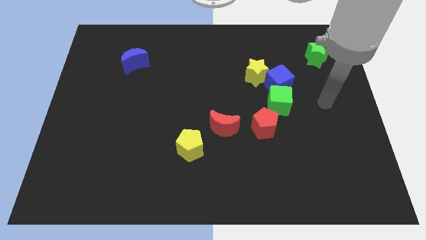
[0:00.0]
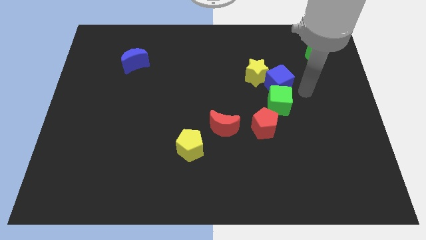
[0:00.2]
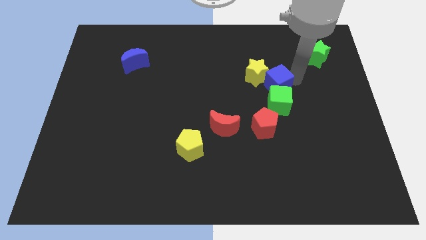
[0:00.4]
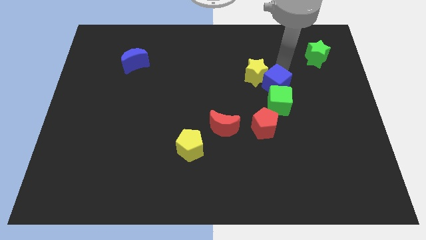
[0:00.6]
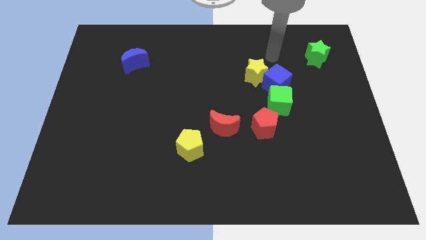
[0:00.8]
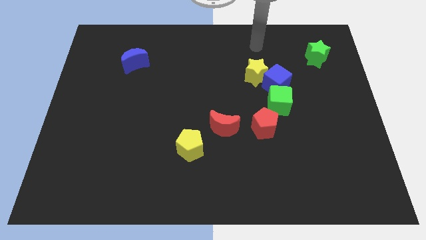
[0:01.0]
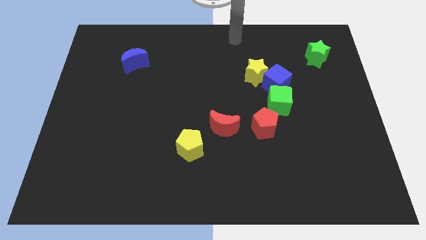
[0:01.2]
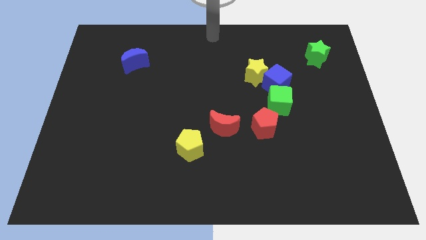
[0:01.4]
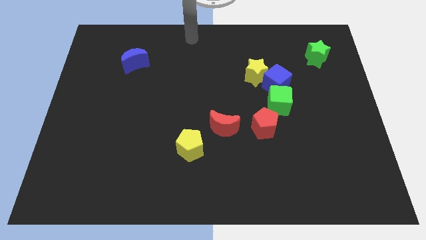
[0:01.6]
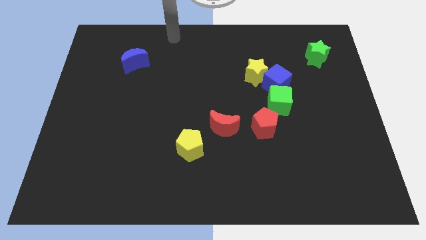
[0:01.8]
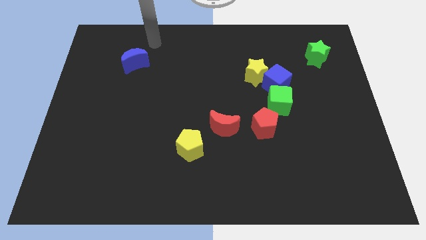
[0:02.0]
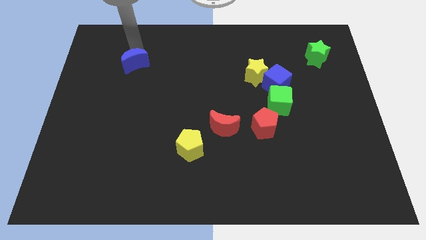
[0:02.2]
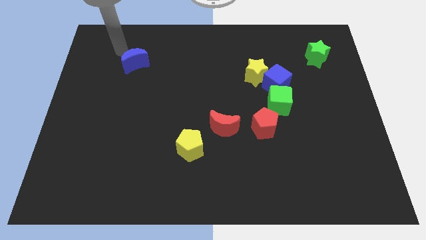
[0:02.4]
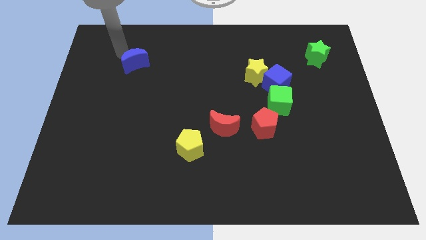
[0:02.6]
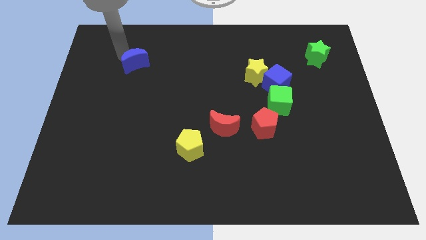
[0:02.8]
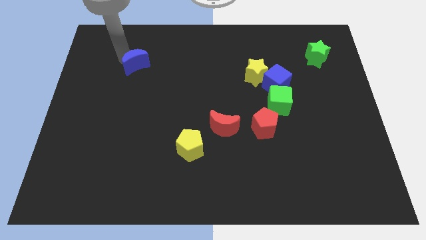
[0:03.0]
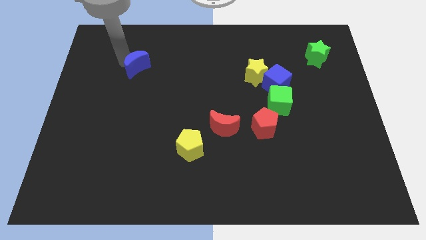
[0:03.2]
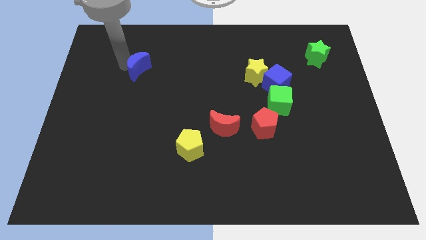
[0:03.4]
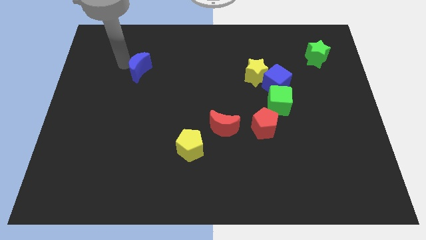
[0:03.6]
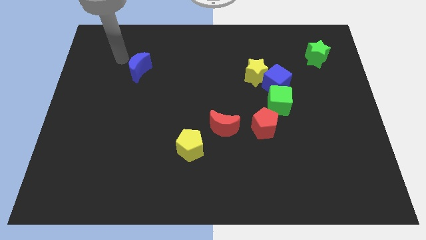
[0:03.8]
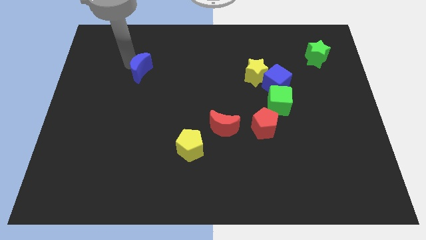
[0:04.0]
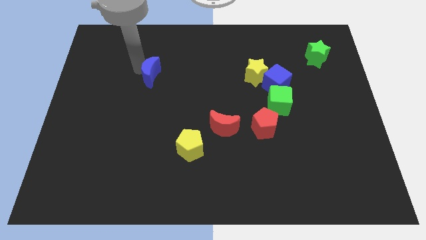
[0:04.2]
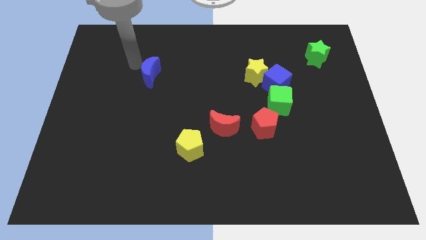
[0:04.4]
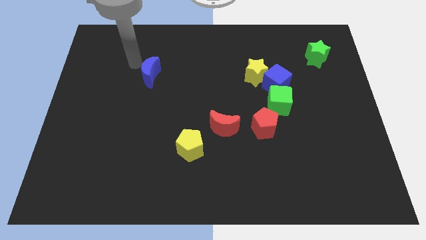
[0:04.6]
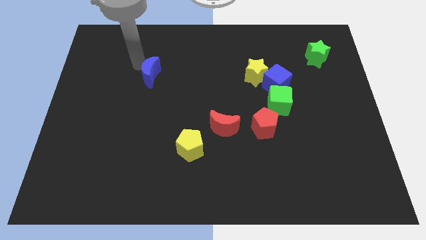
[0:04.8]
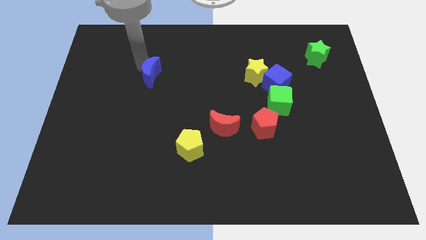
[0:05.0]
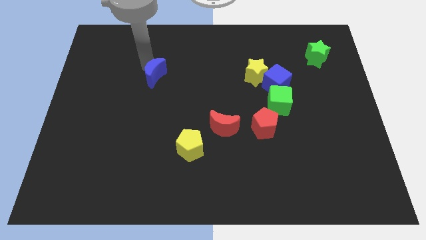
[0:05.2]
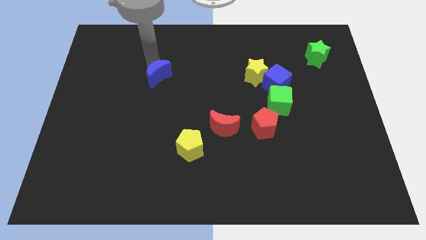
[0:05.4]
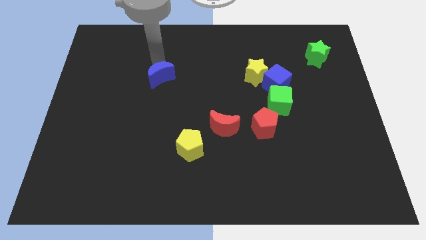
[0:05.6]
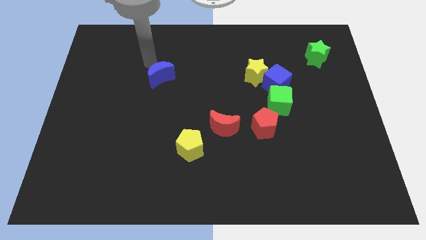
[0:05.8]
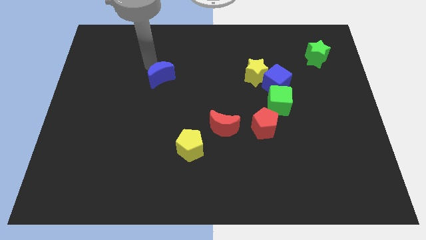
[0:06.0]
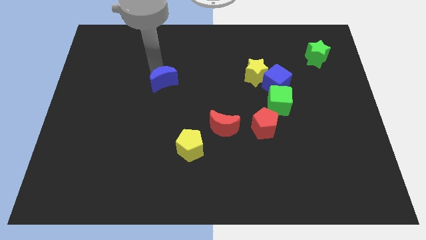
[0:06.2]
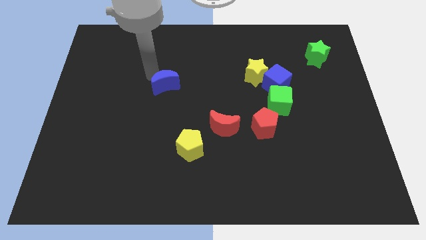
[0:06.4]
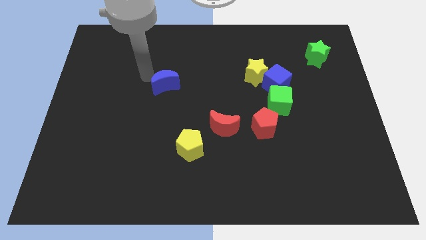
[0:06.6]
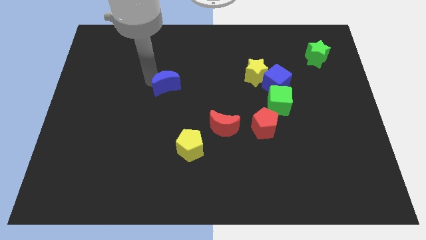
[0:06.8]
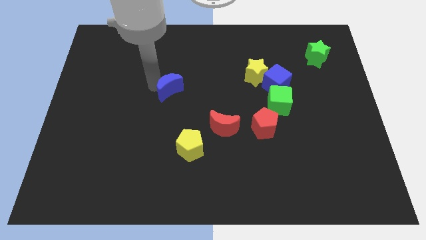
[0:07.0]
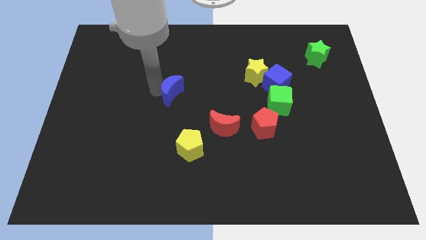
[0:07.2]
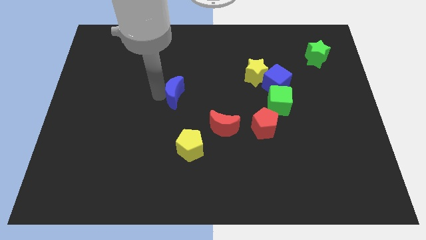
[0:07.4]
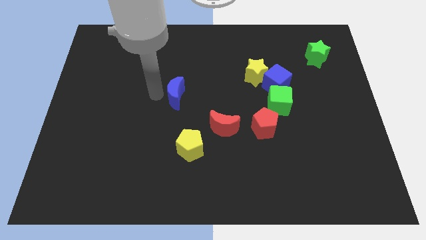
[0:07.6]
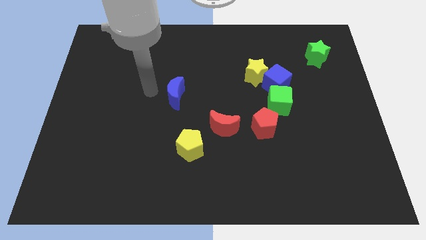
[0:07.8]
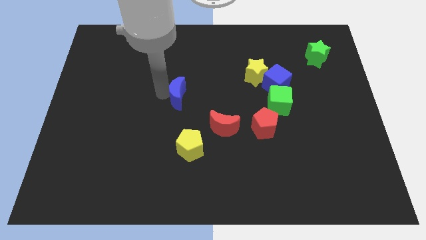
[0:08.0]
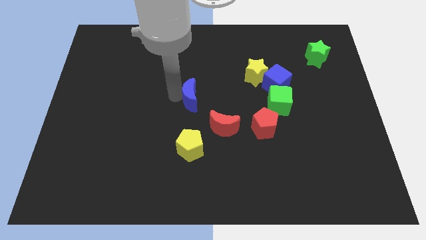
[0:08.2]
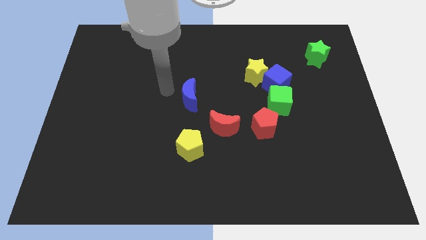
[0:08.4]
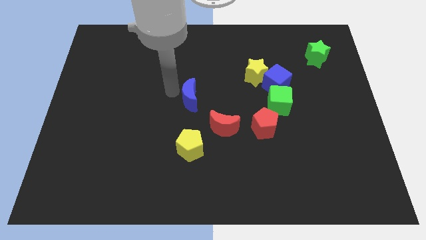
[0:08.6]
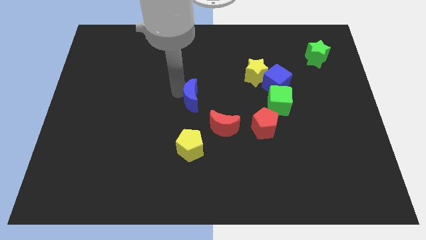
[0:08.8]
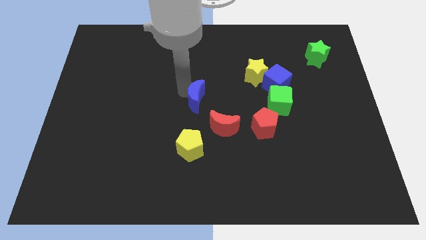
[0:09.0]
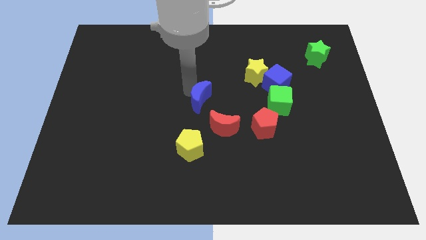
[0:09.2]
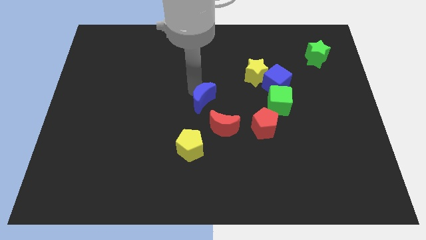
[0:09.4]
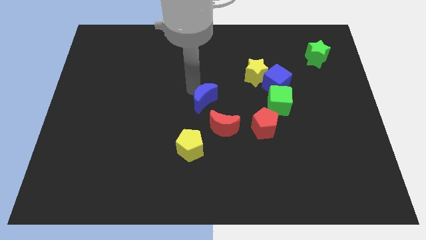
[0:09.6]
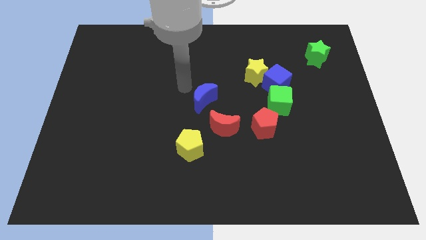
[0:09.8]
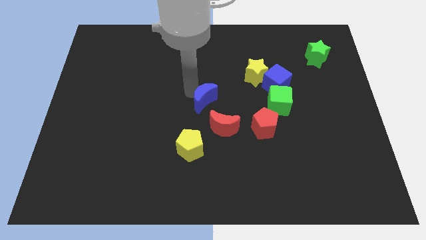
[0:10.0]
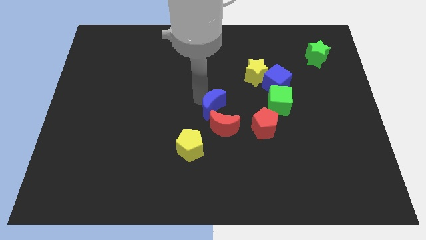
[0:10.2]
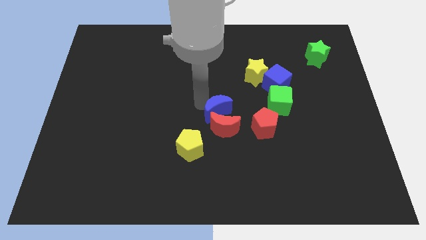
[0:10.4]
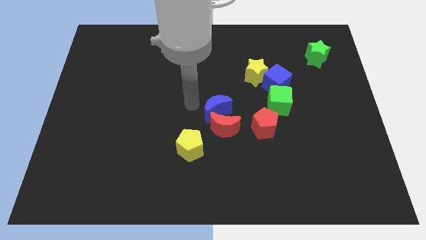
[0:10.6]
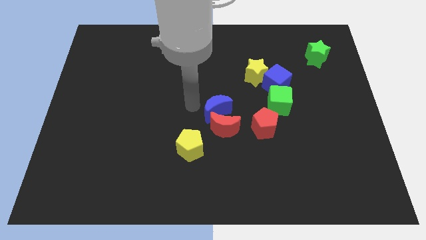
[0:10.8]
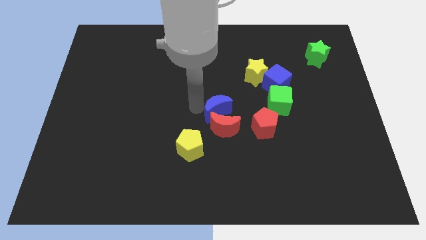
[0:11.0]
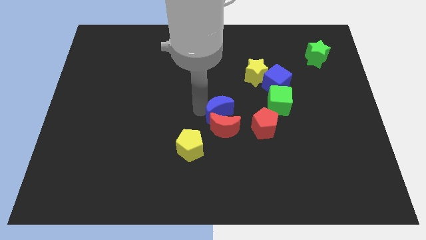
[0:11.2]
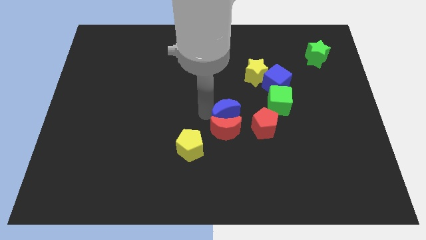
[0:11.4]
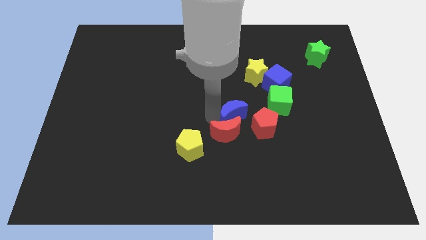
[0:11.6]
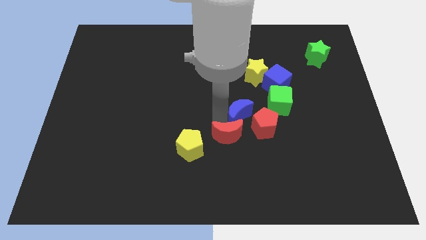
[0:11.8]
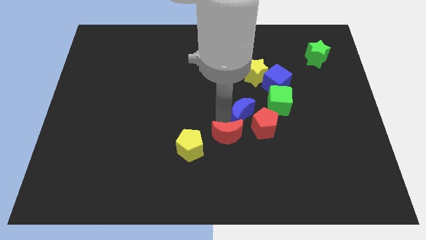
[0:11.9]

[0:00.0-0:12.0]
move the blue moon to the red pentagon

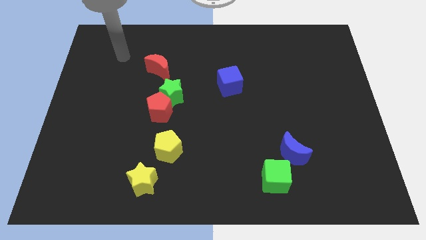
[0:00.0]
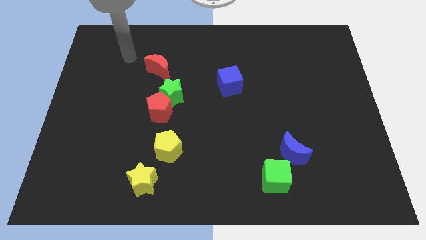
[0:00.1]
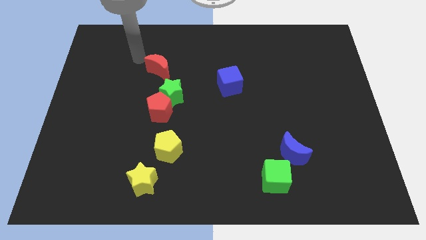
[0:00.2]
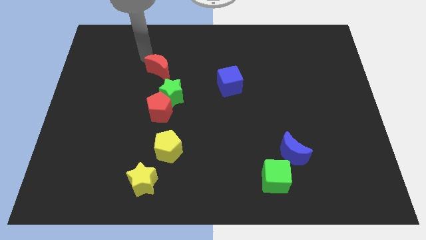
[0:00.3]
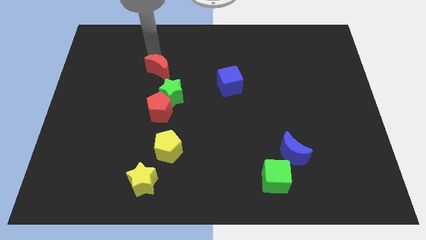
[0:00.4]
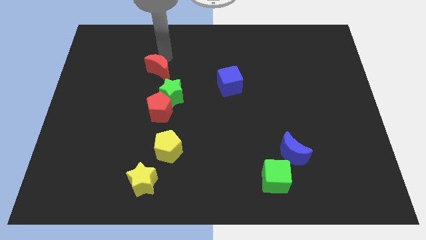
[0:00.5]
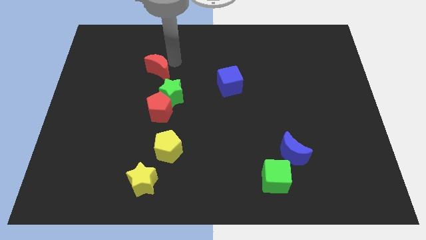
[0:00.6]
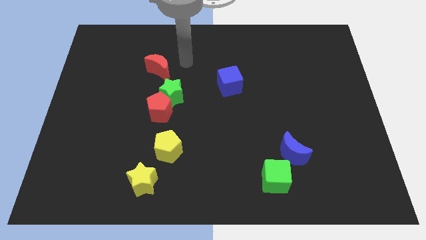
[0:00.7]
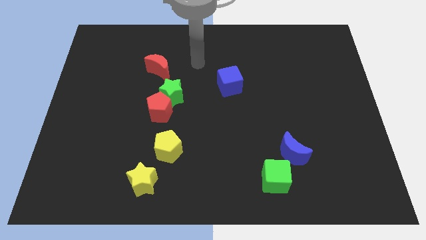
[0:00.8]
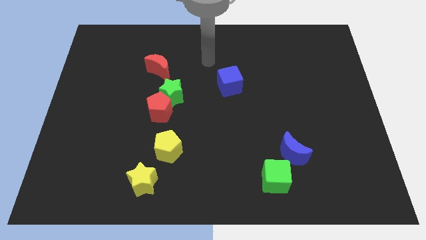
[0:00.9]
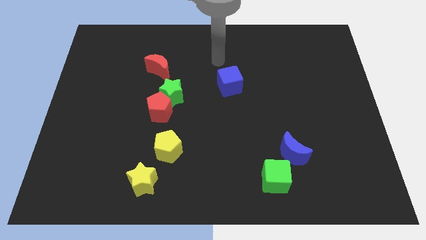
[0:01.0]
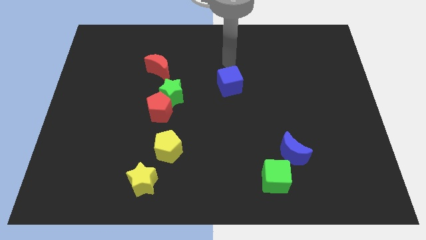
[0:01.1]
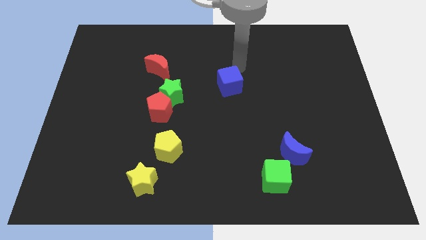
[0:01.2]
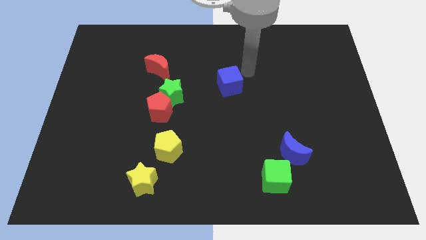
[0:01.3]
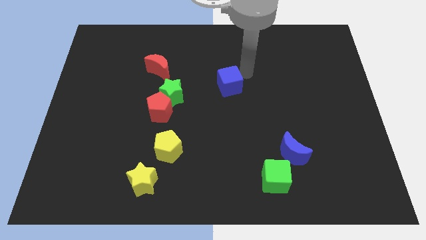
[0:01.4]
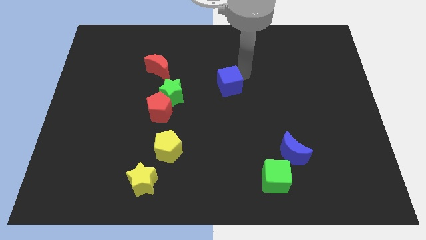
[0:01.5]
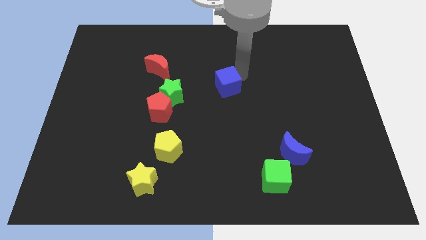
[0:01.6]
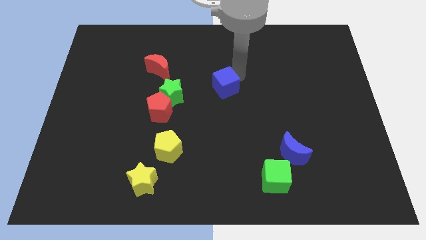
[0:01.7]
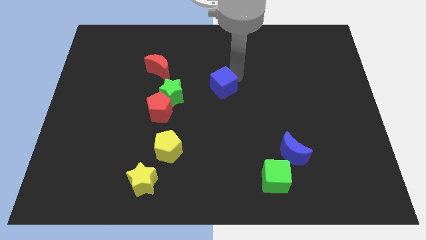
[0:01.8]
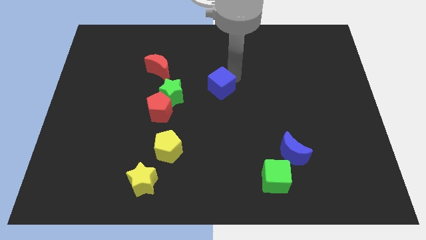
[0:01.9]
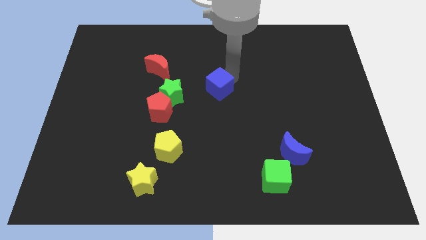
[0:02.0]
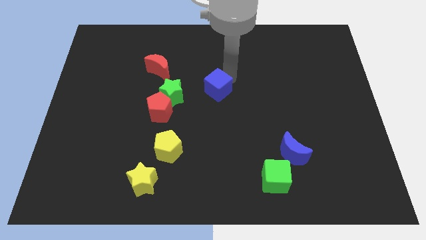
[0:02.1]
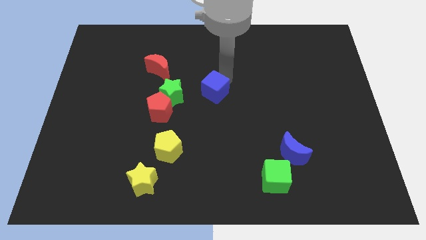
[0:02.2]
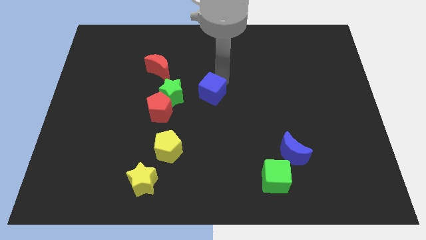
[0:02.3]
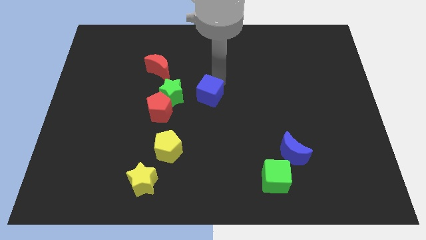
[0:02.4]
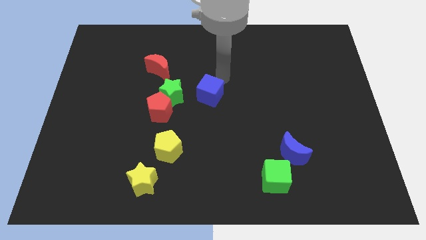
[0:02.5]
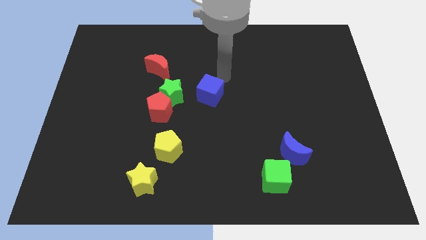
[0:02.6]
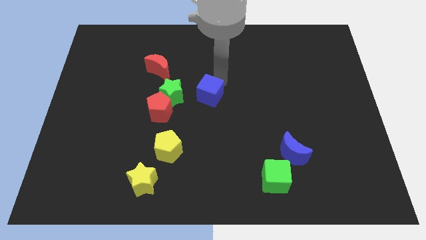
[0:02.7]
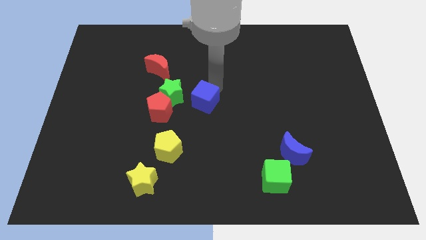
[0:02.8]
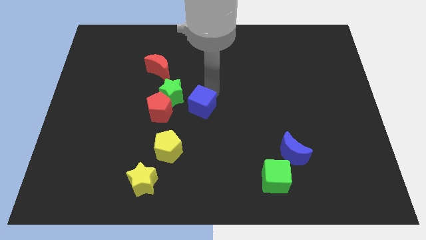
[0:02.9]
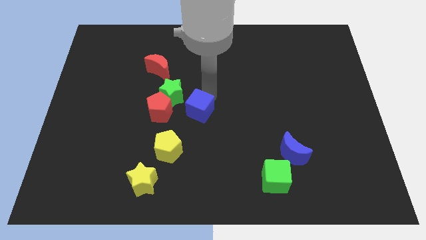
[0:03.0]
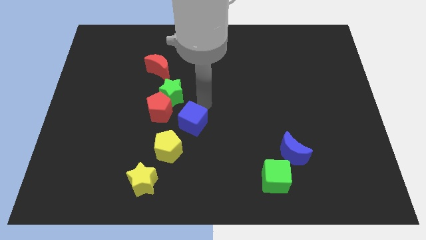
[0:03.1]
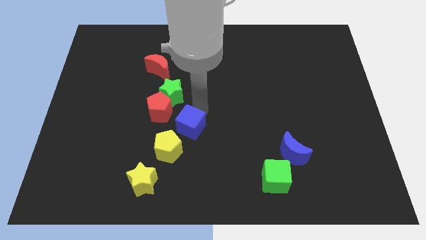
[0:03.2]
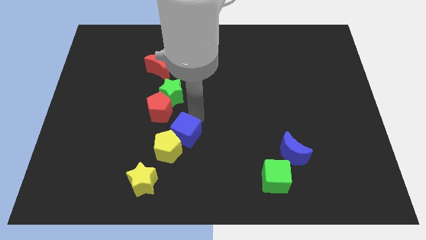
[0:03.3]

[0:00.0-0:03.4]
slide the blue cube close to the yellow pentagon
